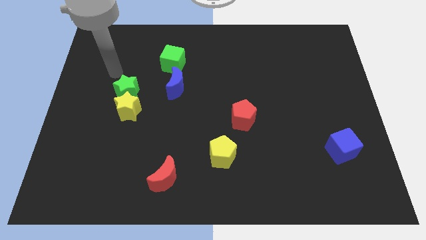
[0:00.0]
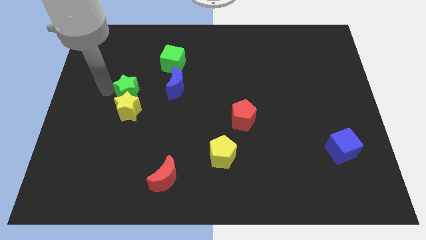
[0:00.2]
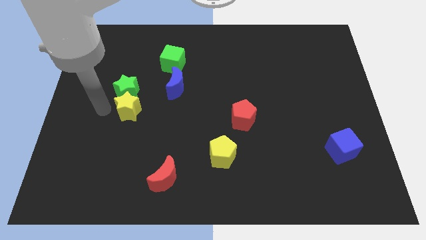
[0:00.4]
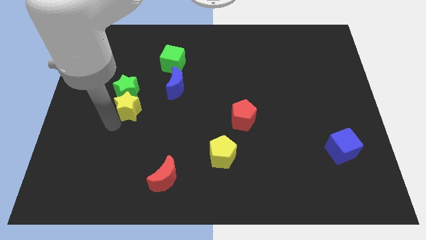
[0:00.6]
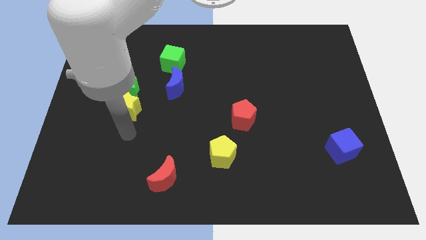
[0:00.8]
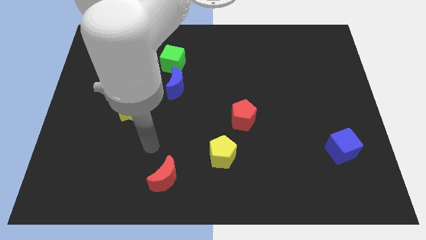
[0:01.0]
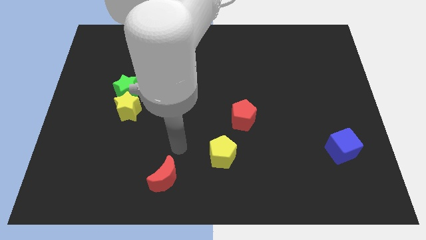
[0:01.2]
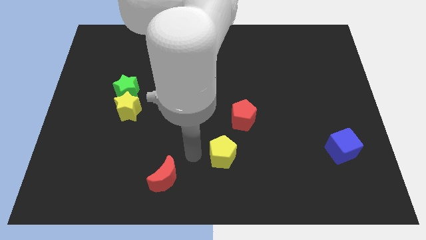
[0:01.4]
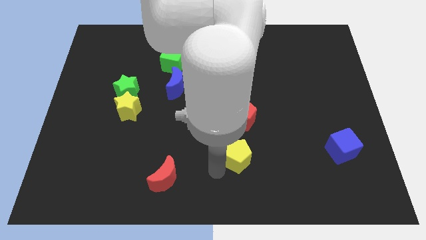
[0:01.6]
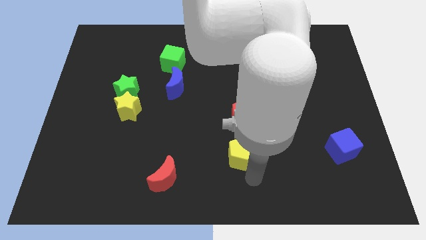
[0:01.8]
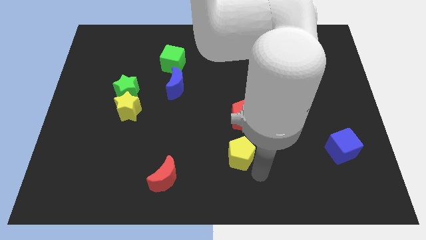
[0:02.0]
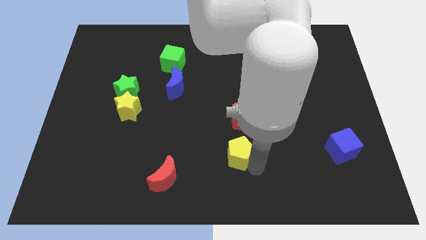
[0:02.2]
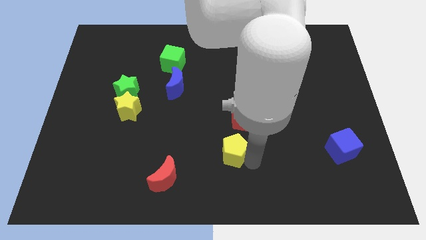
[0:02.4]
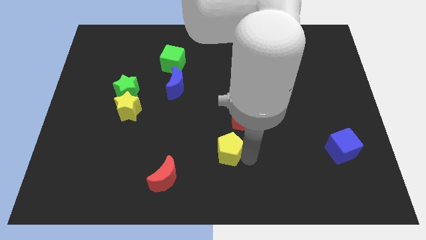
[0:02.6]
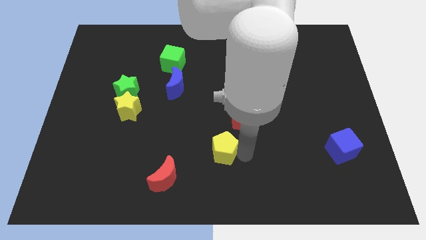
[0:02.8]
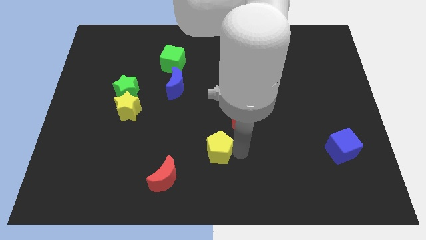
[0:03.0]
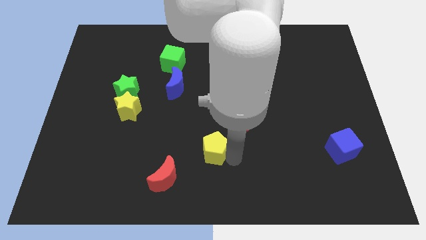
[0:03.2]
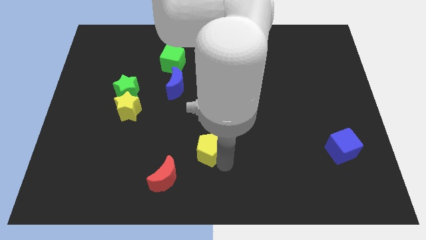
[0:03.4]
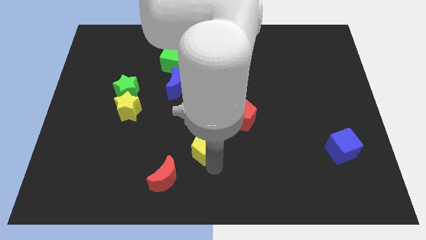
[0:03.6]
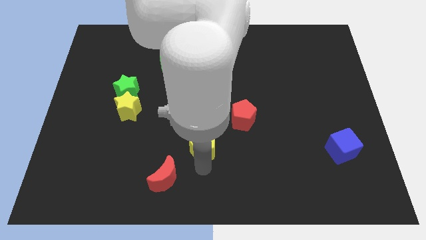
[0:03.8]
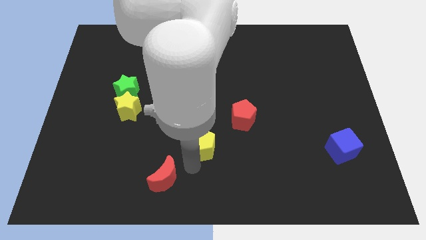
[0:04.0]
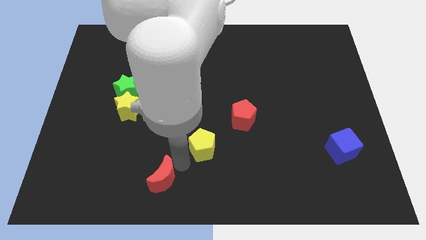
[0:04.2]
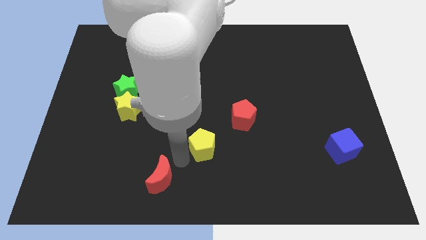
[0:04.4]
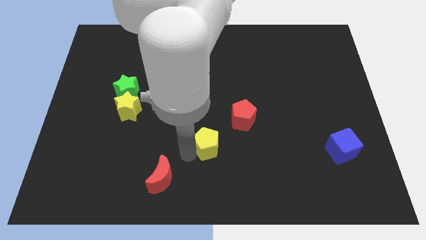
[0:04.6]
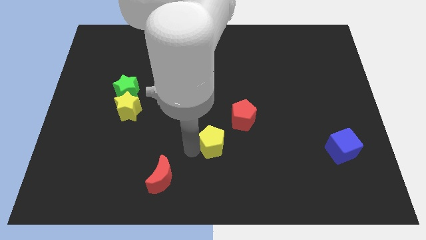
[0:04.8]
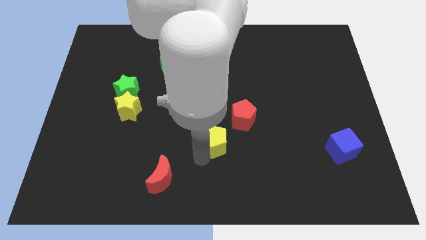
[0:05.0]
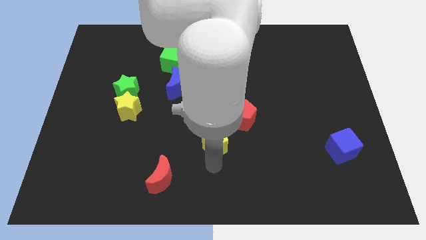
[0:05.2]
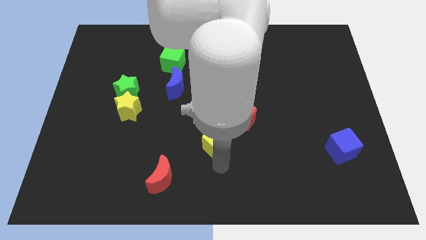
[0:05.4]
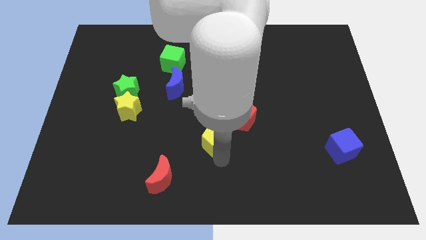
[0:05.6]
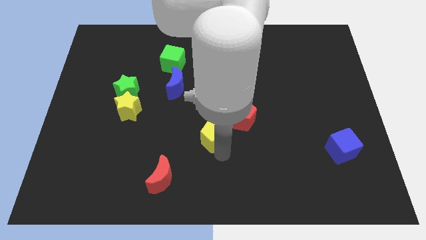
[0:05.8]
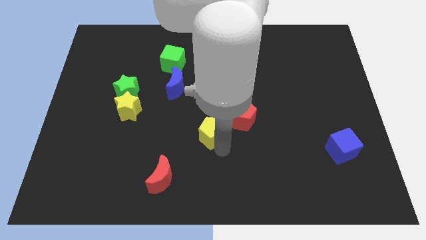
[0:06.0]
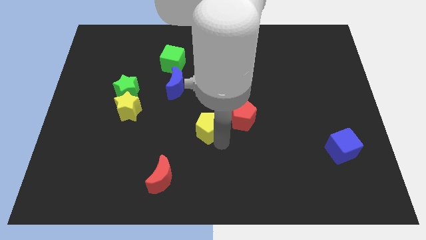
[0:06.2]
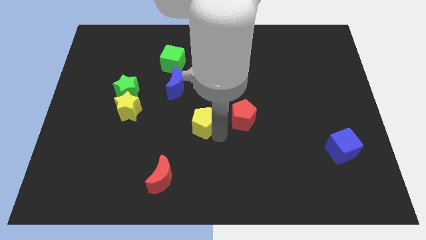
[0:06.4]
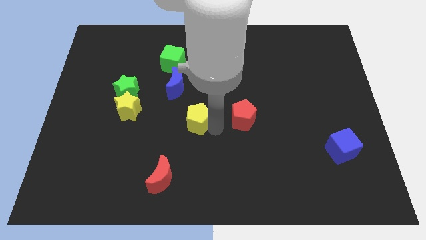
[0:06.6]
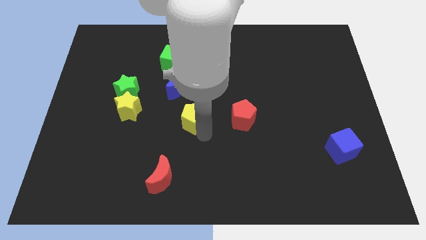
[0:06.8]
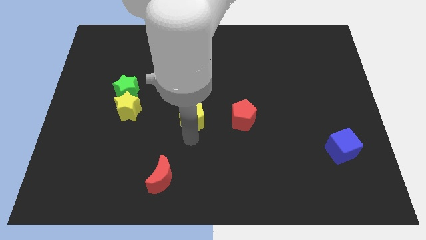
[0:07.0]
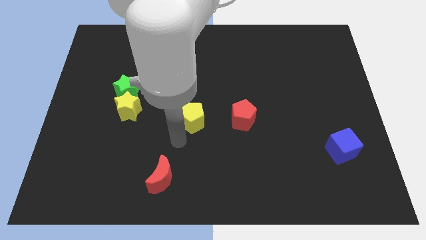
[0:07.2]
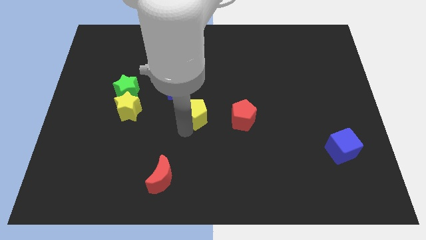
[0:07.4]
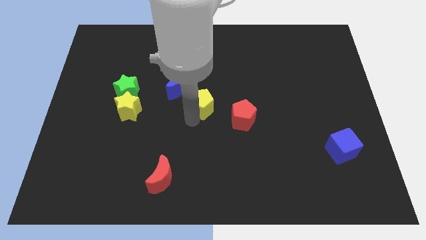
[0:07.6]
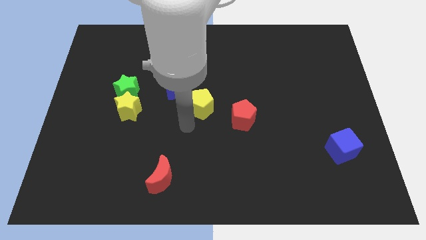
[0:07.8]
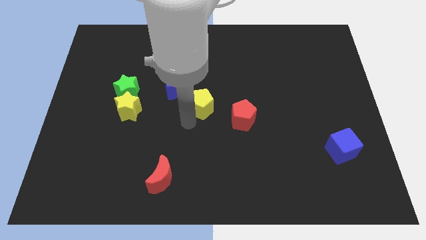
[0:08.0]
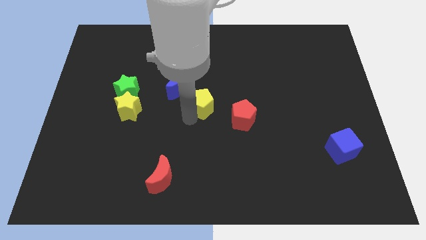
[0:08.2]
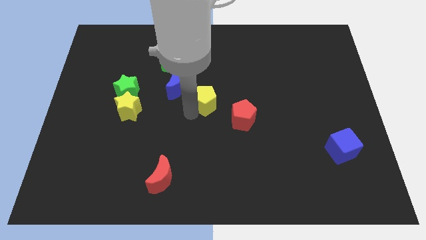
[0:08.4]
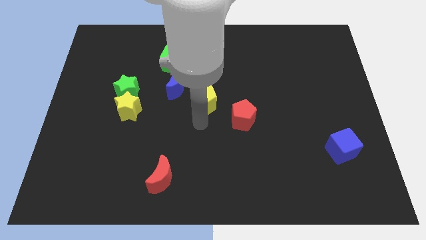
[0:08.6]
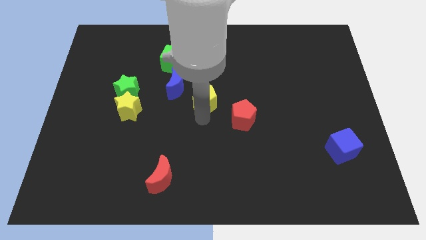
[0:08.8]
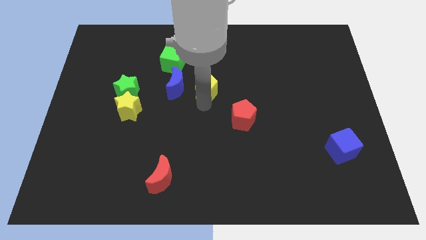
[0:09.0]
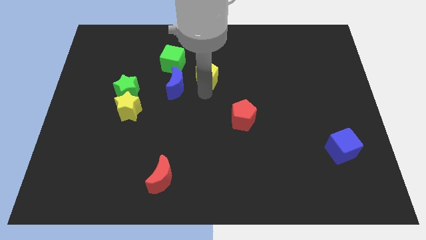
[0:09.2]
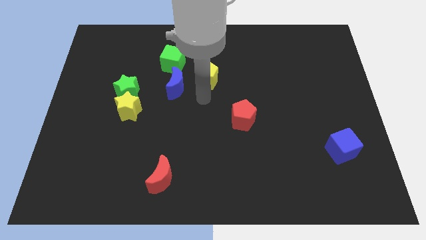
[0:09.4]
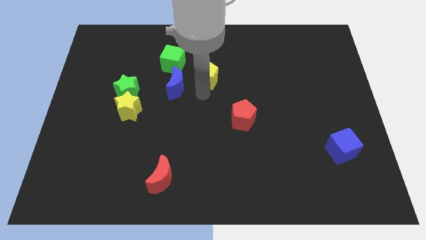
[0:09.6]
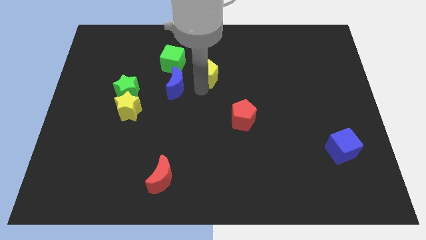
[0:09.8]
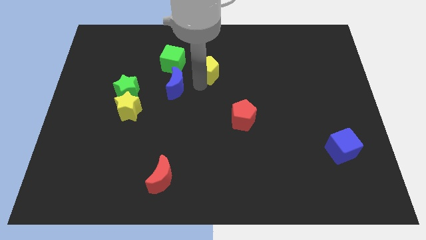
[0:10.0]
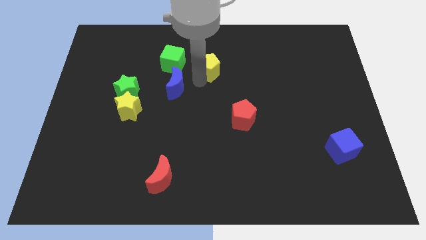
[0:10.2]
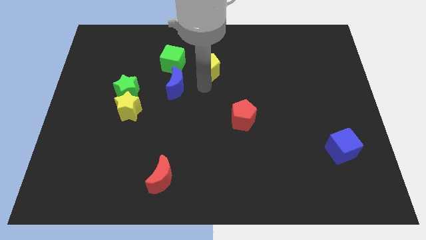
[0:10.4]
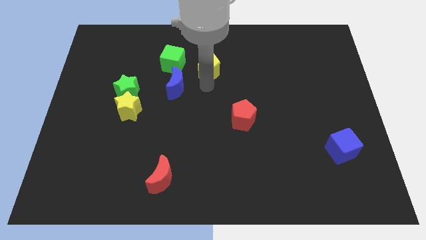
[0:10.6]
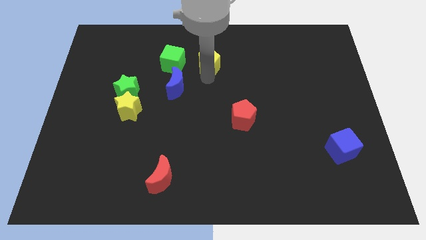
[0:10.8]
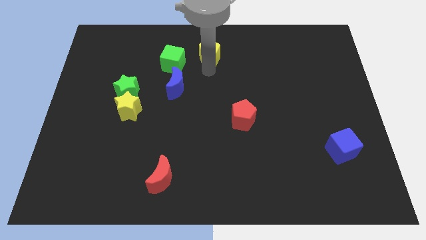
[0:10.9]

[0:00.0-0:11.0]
put the yellow pentagon to the top

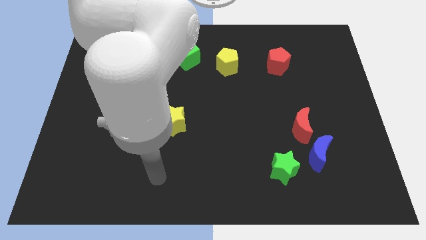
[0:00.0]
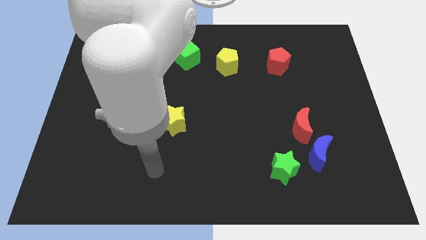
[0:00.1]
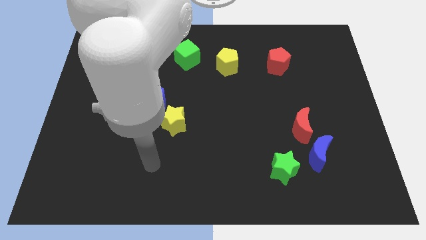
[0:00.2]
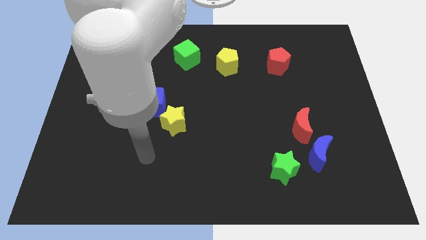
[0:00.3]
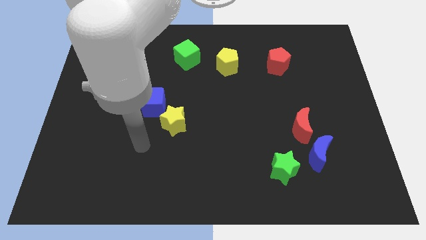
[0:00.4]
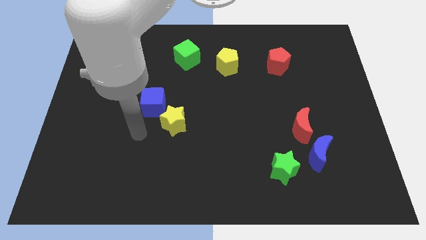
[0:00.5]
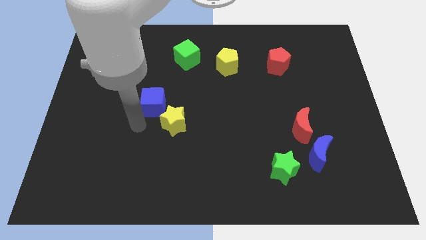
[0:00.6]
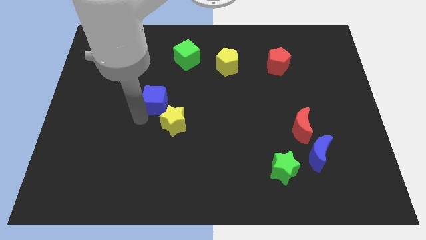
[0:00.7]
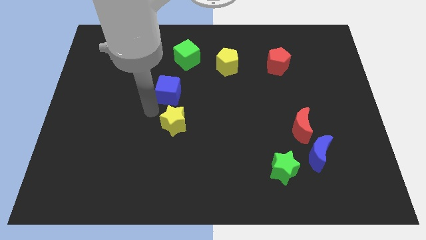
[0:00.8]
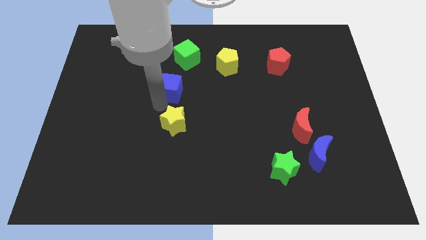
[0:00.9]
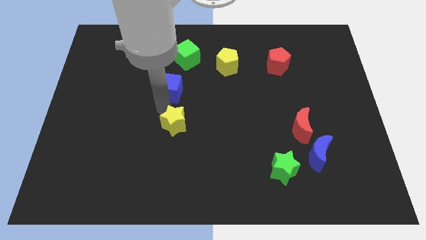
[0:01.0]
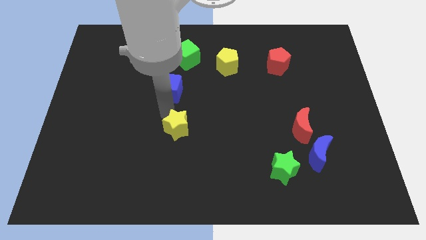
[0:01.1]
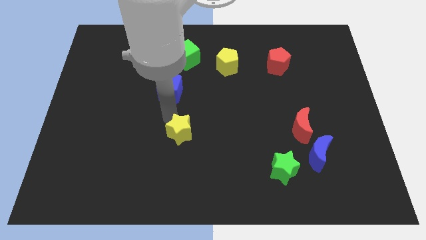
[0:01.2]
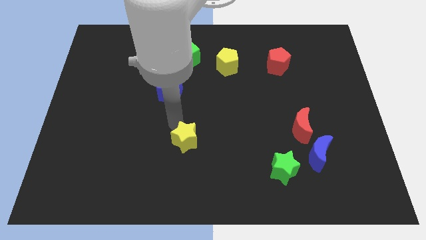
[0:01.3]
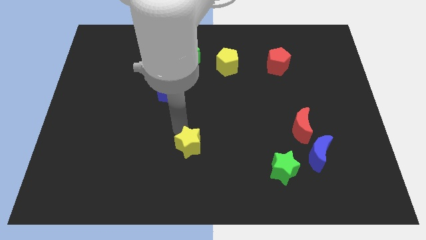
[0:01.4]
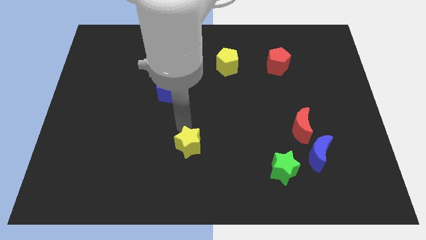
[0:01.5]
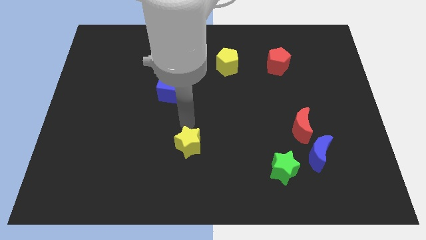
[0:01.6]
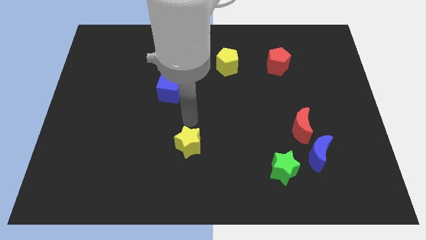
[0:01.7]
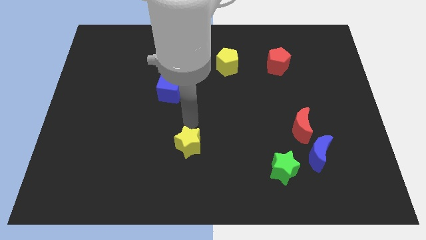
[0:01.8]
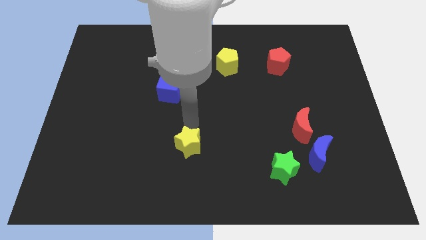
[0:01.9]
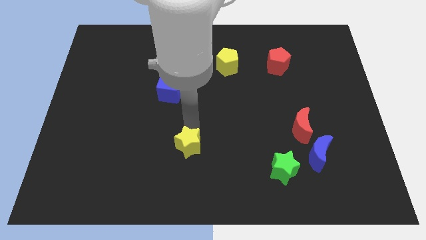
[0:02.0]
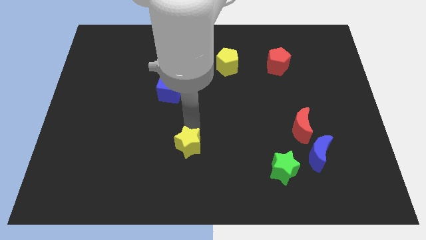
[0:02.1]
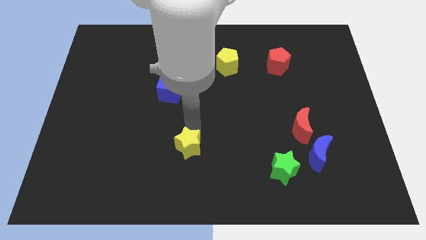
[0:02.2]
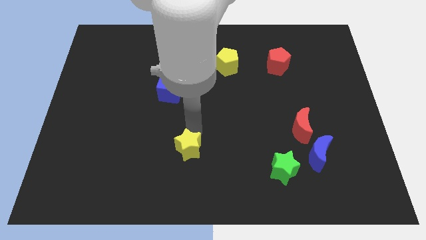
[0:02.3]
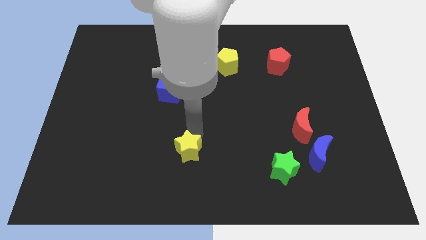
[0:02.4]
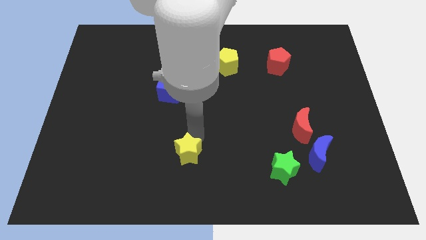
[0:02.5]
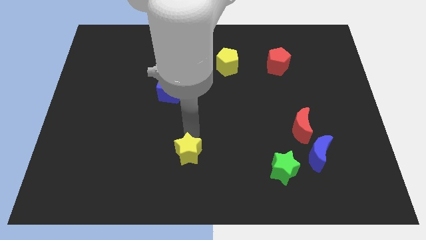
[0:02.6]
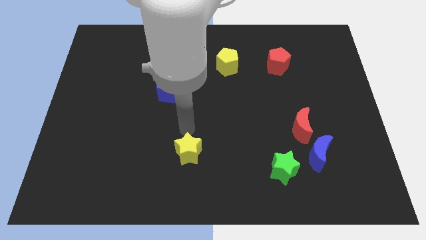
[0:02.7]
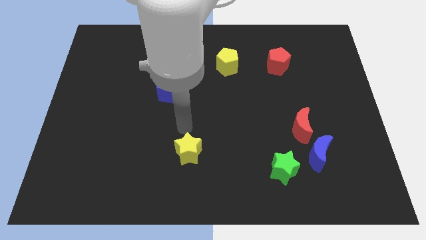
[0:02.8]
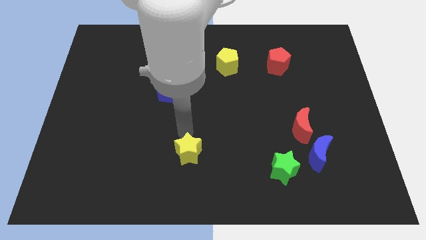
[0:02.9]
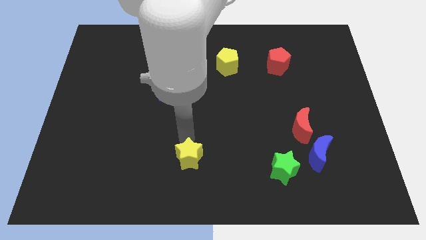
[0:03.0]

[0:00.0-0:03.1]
push the yellow star to the bottom

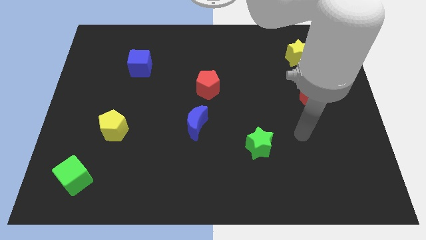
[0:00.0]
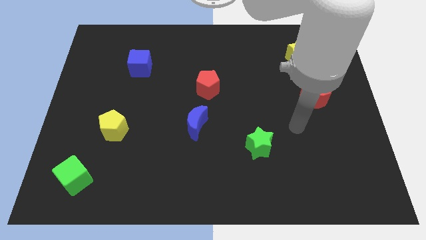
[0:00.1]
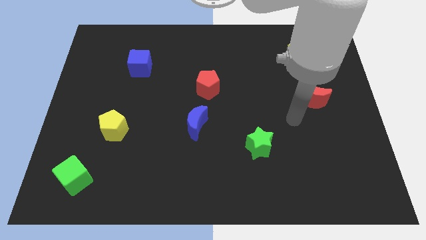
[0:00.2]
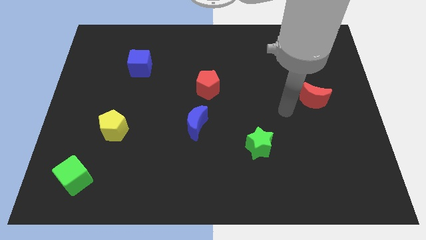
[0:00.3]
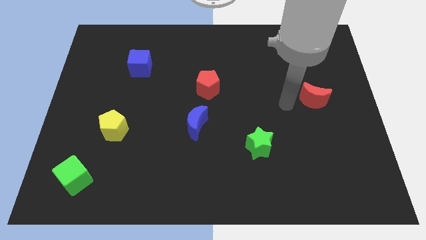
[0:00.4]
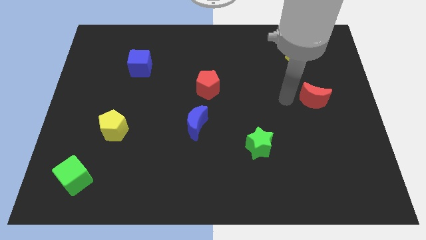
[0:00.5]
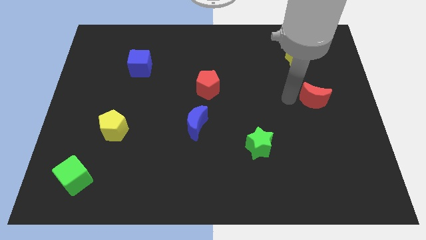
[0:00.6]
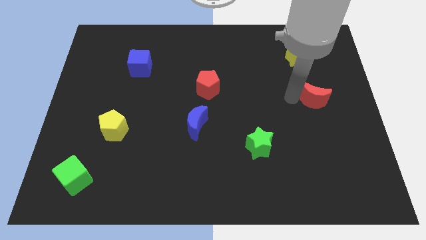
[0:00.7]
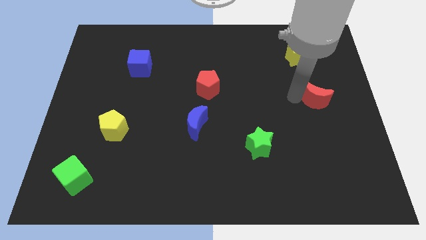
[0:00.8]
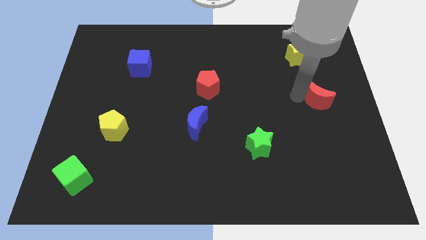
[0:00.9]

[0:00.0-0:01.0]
put the red moon to the center right
